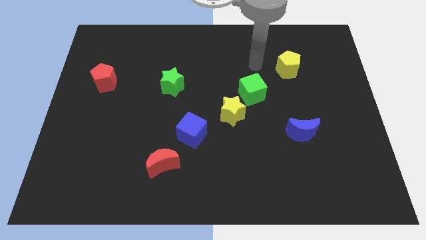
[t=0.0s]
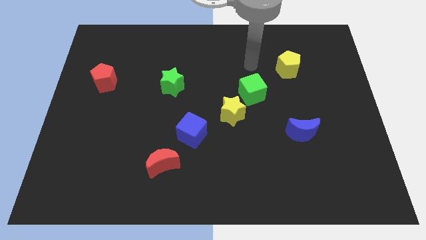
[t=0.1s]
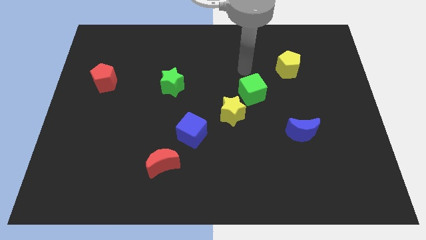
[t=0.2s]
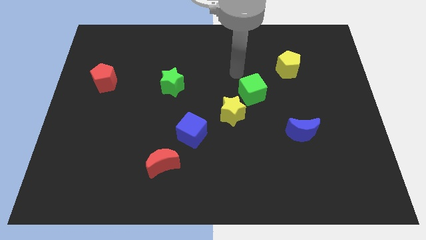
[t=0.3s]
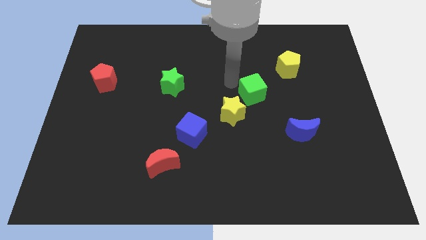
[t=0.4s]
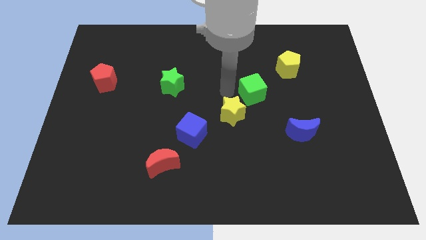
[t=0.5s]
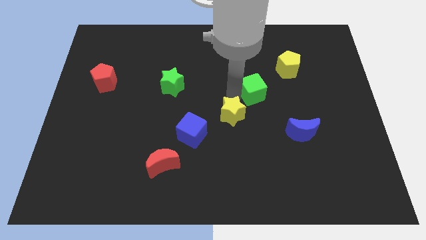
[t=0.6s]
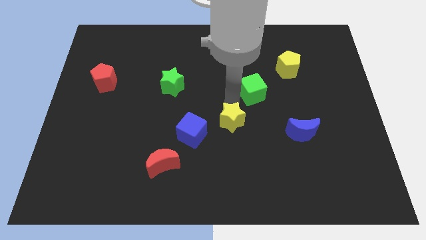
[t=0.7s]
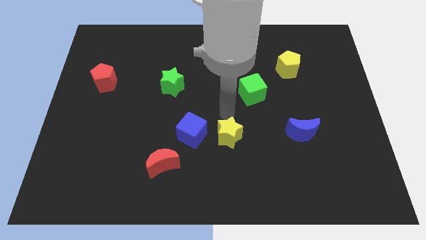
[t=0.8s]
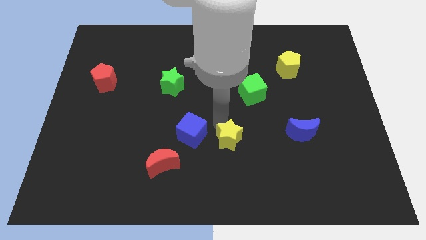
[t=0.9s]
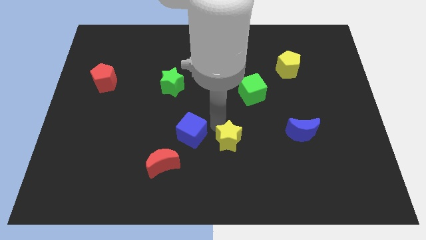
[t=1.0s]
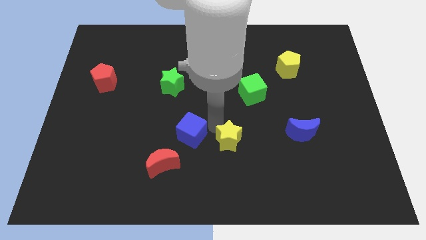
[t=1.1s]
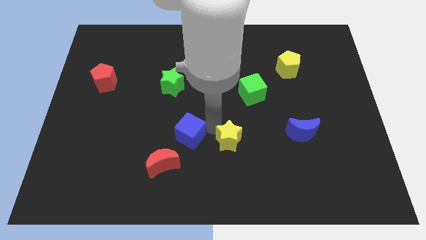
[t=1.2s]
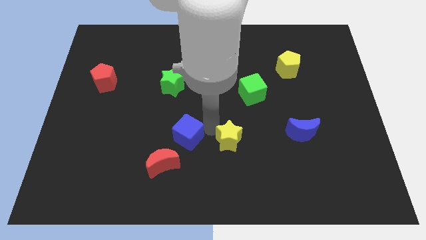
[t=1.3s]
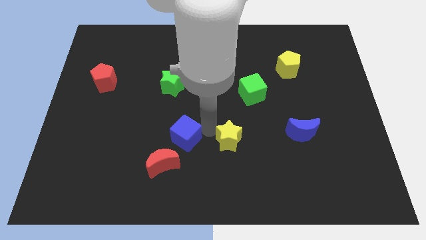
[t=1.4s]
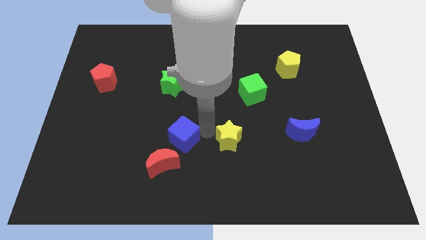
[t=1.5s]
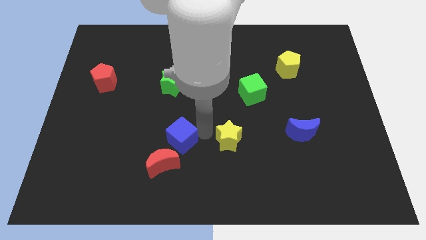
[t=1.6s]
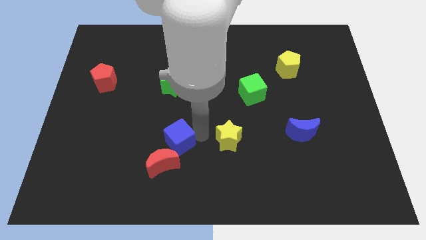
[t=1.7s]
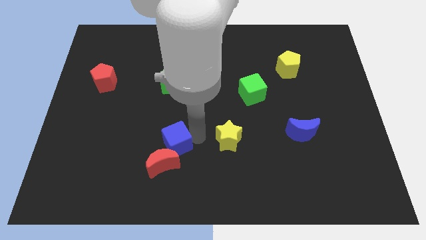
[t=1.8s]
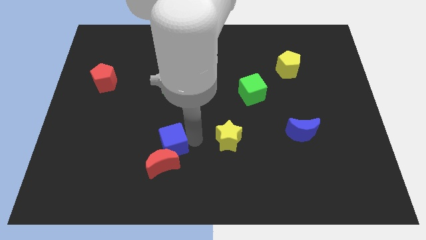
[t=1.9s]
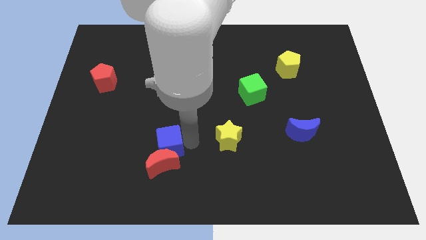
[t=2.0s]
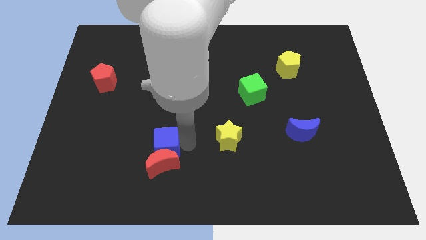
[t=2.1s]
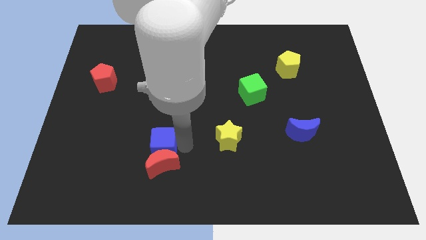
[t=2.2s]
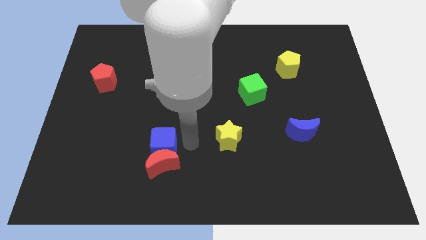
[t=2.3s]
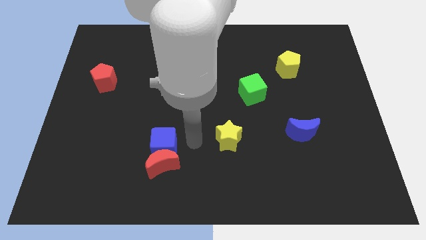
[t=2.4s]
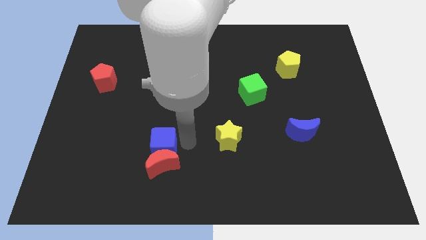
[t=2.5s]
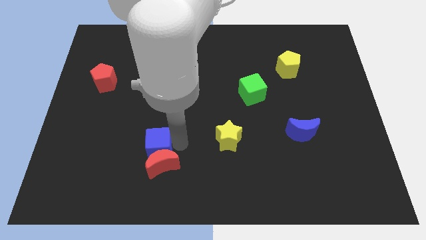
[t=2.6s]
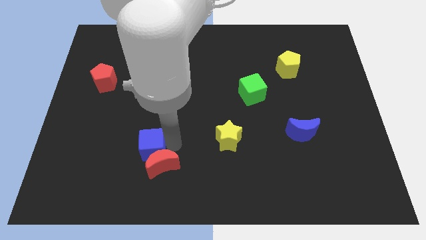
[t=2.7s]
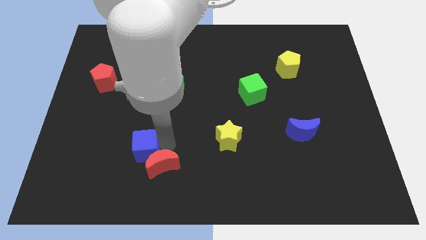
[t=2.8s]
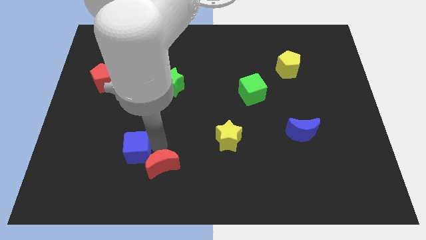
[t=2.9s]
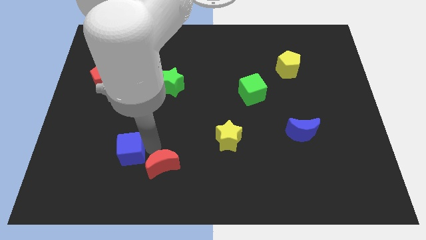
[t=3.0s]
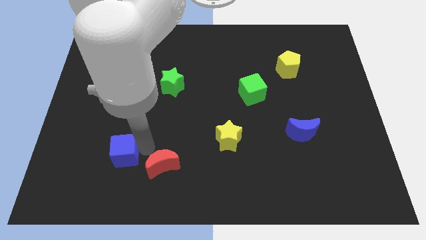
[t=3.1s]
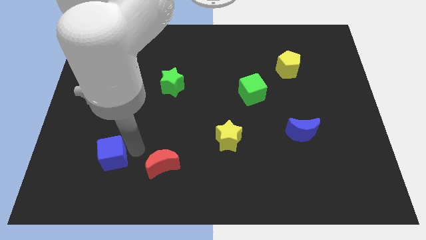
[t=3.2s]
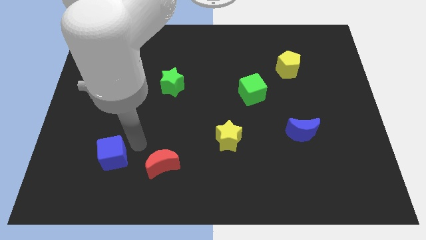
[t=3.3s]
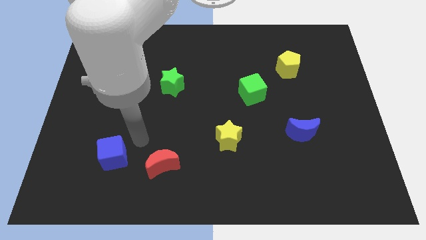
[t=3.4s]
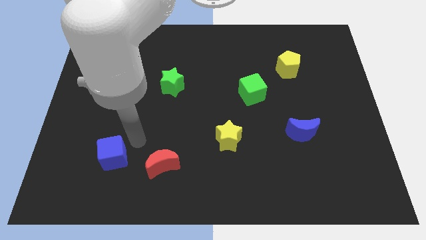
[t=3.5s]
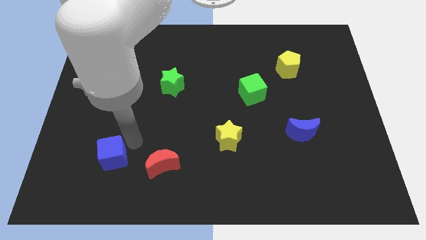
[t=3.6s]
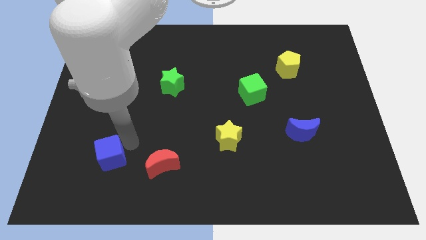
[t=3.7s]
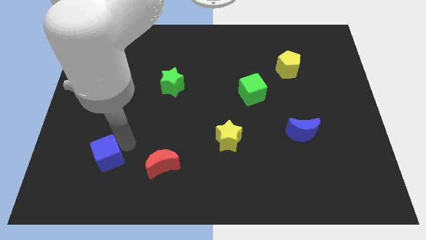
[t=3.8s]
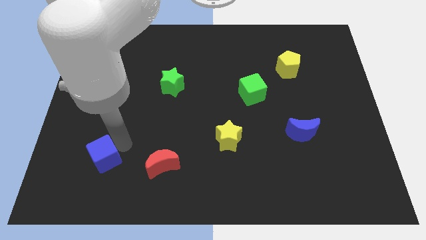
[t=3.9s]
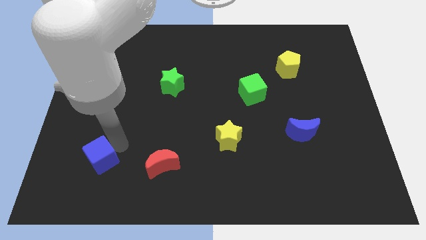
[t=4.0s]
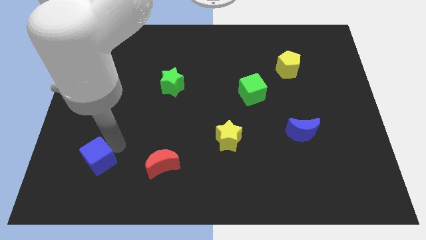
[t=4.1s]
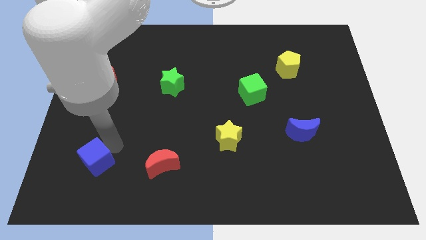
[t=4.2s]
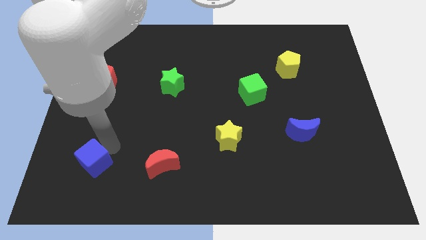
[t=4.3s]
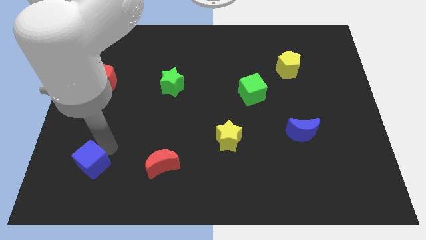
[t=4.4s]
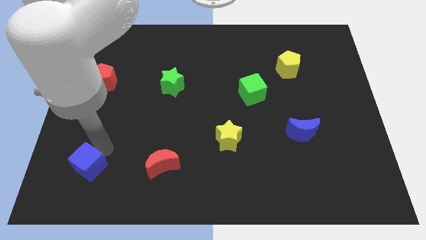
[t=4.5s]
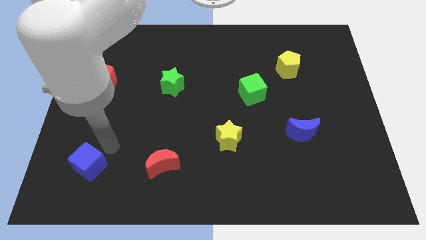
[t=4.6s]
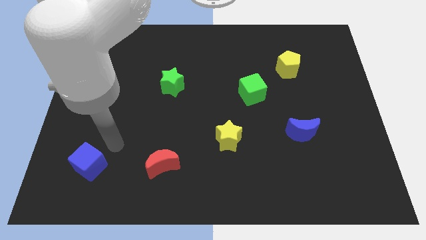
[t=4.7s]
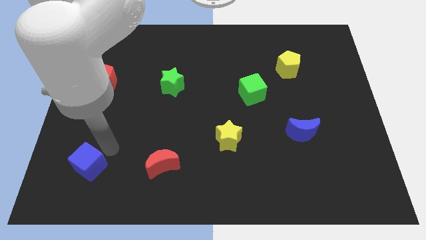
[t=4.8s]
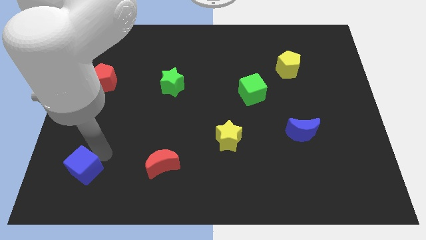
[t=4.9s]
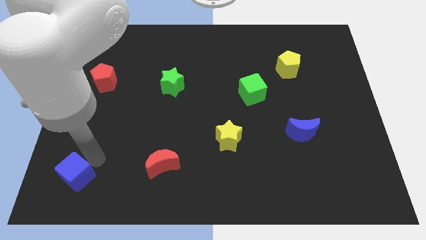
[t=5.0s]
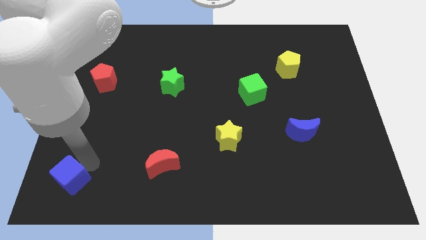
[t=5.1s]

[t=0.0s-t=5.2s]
move the blue cube to the bottom left of the board
